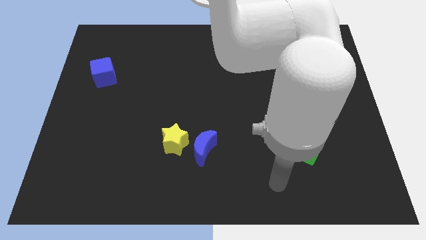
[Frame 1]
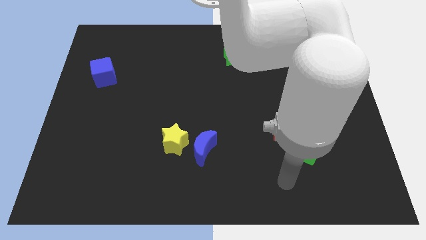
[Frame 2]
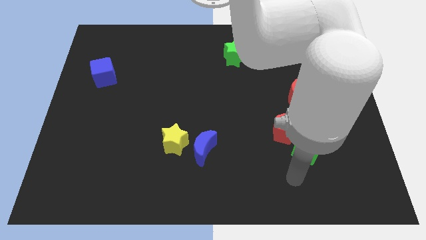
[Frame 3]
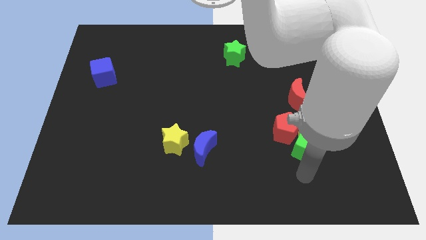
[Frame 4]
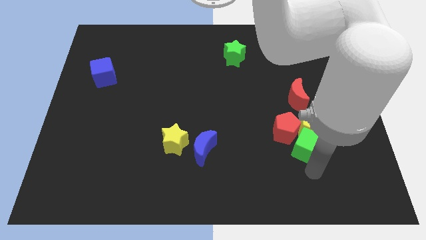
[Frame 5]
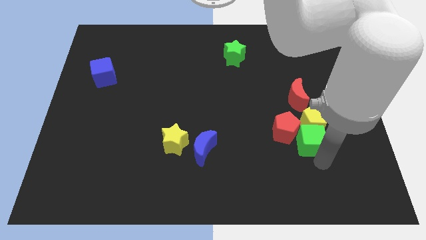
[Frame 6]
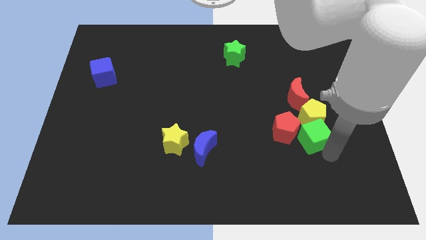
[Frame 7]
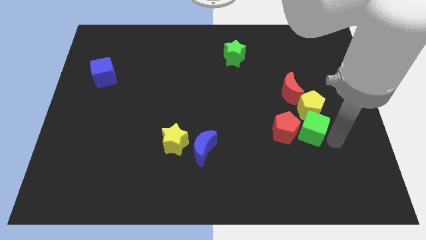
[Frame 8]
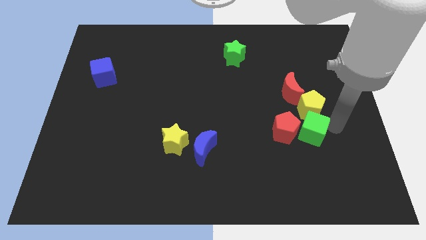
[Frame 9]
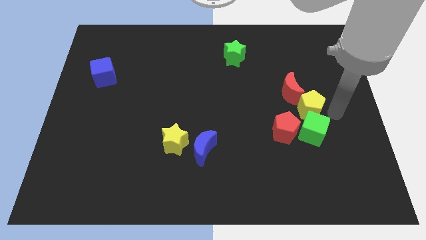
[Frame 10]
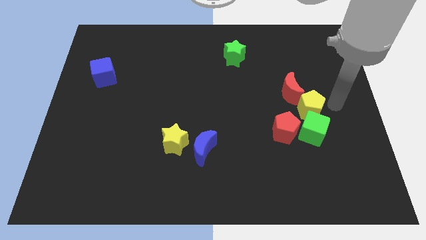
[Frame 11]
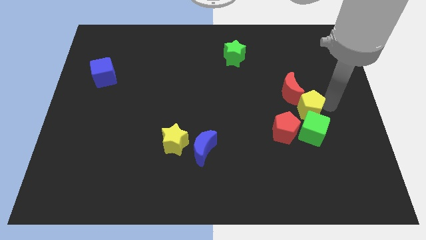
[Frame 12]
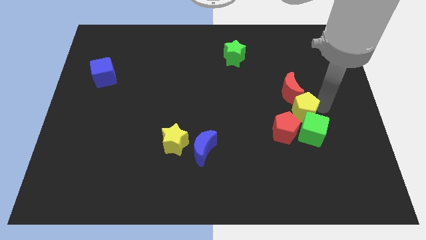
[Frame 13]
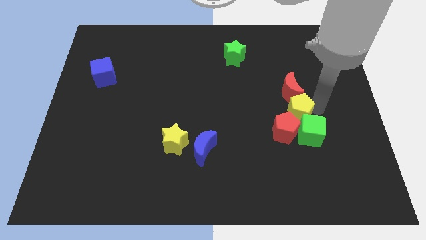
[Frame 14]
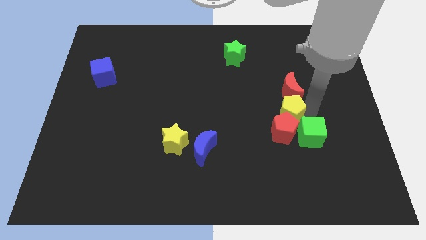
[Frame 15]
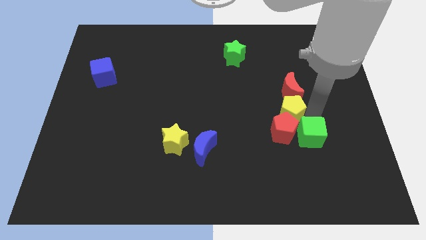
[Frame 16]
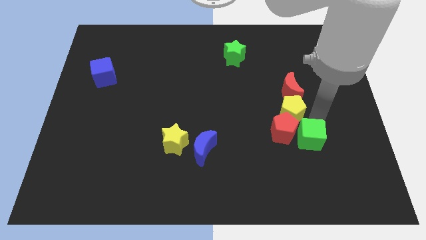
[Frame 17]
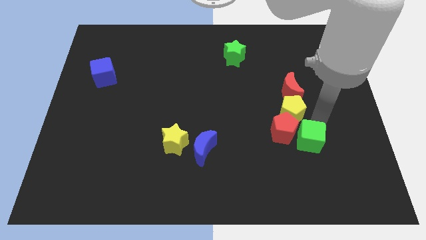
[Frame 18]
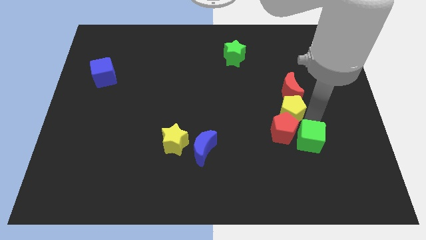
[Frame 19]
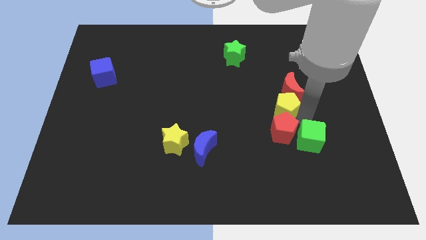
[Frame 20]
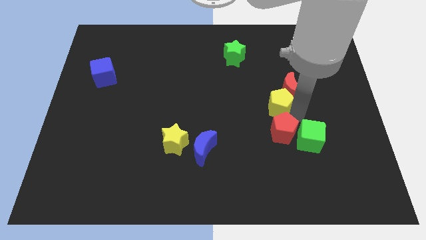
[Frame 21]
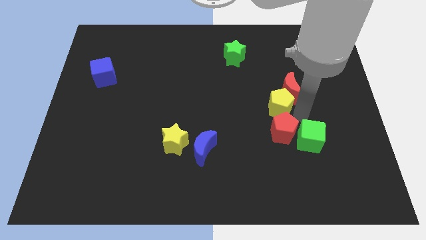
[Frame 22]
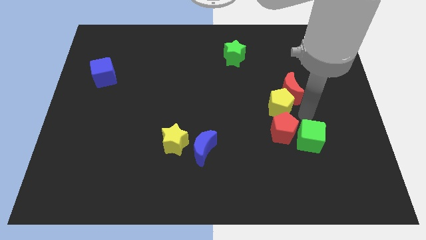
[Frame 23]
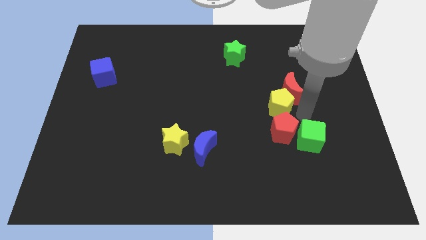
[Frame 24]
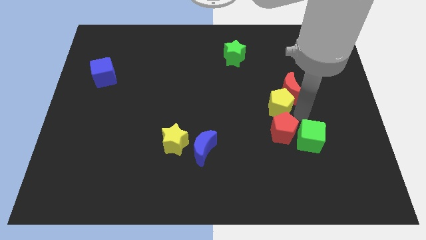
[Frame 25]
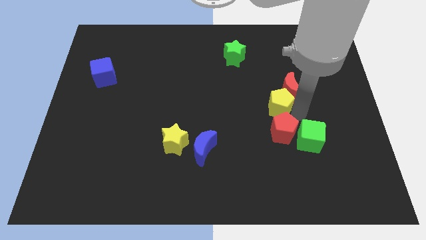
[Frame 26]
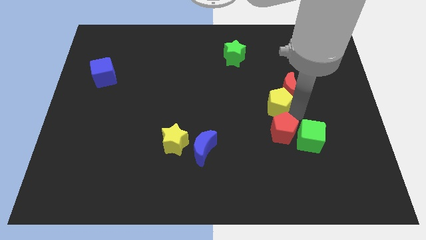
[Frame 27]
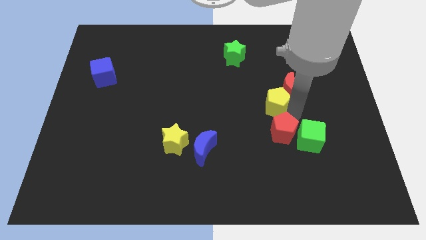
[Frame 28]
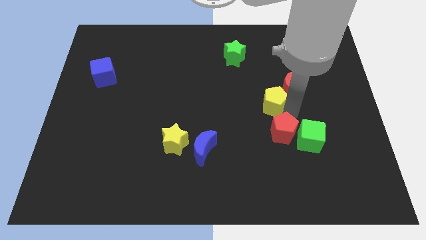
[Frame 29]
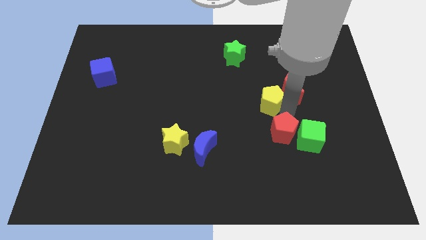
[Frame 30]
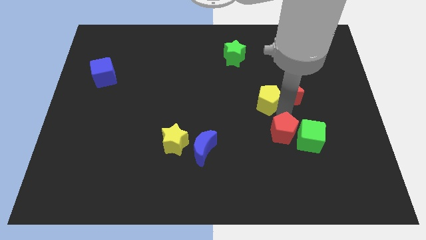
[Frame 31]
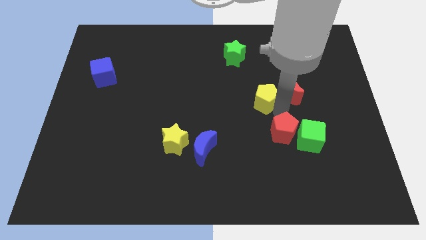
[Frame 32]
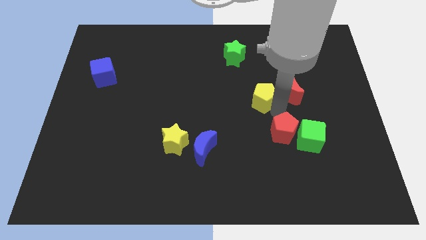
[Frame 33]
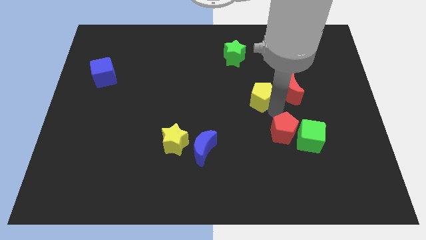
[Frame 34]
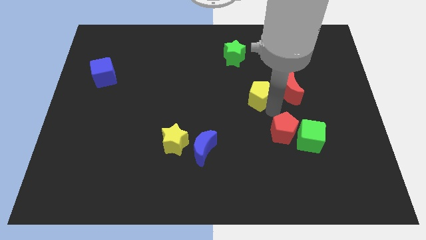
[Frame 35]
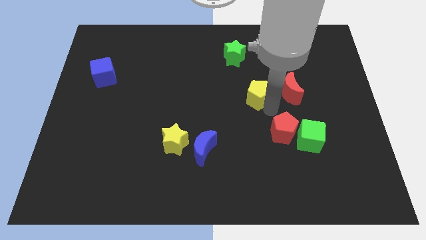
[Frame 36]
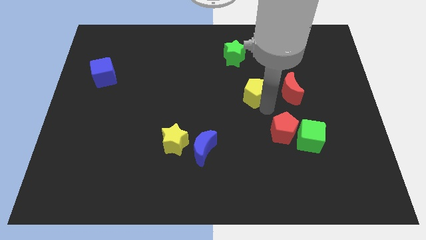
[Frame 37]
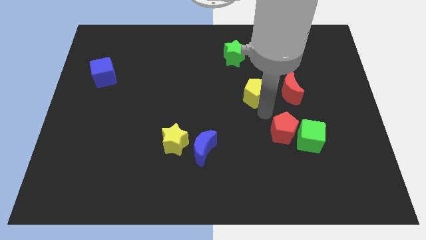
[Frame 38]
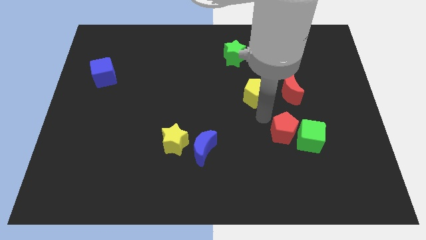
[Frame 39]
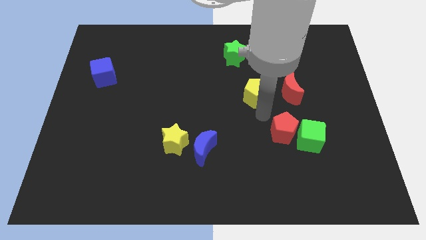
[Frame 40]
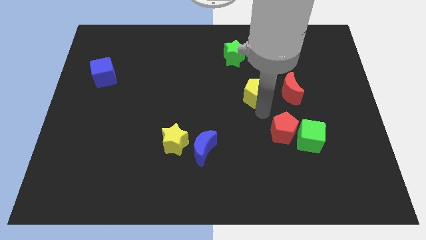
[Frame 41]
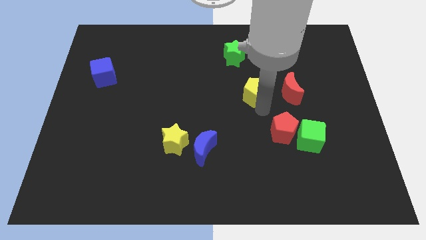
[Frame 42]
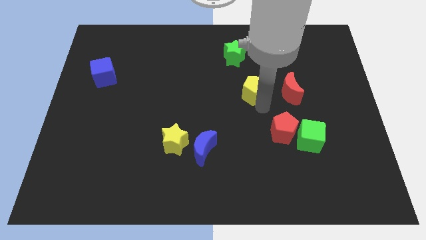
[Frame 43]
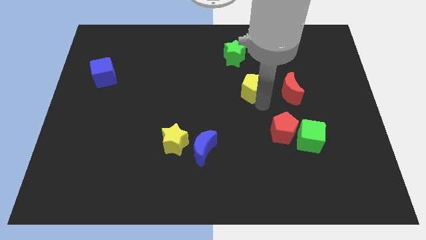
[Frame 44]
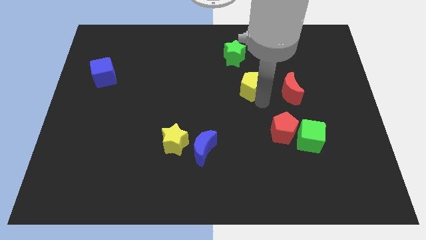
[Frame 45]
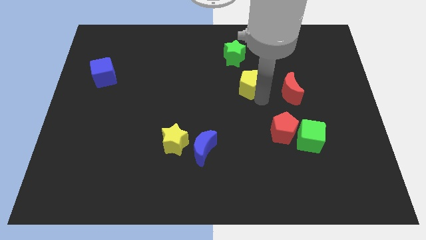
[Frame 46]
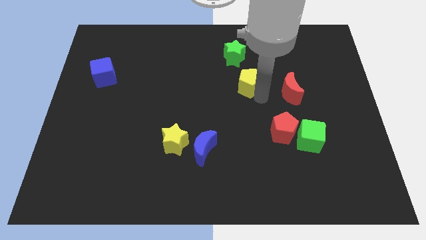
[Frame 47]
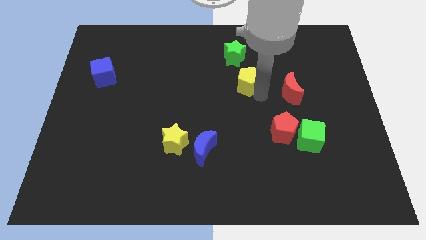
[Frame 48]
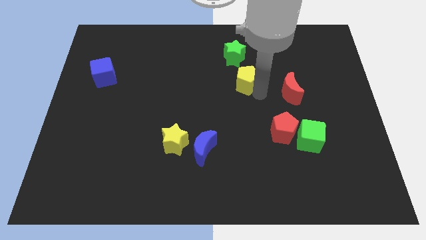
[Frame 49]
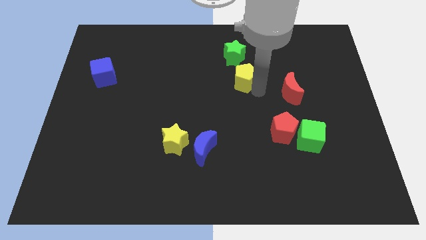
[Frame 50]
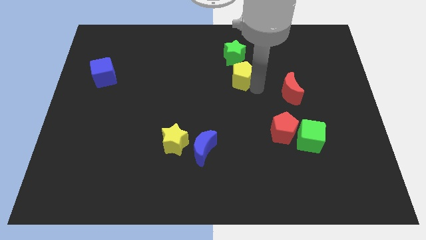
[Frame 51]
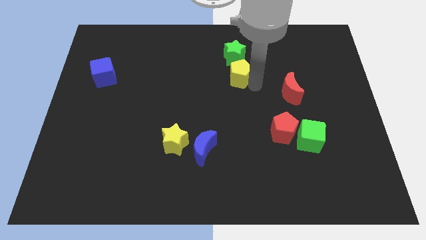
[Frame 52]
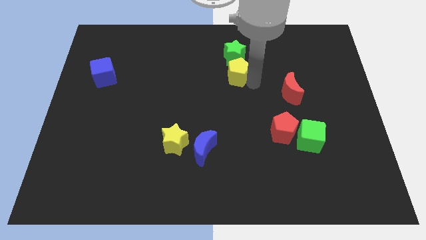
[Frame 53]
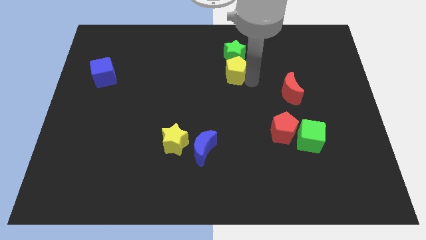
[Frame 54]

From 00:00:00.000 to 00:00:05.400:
put the yellow pentagon close to the green star

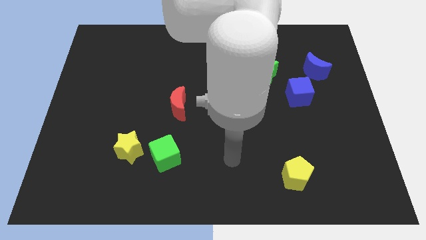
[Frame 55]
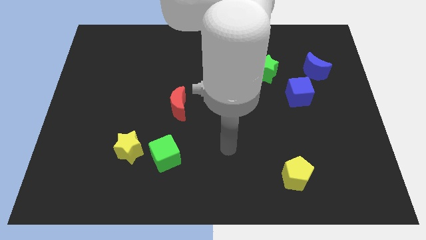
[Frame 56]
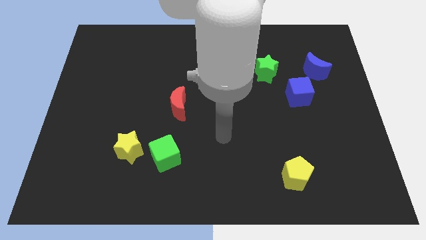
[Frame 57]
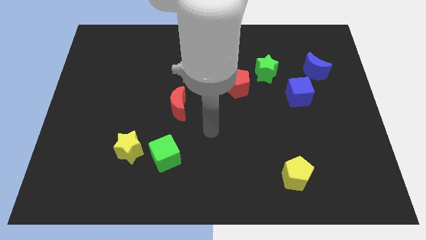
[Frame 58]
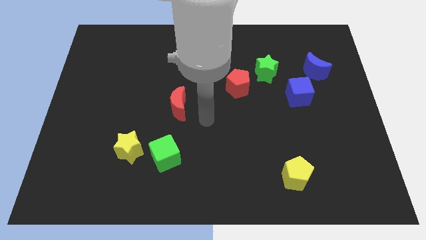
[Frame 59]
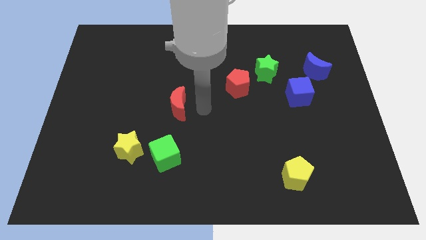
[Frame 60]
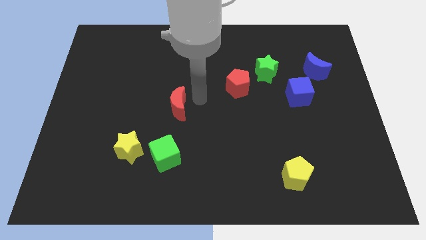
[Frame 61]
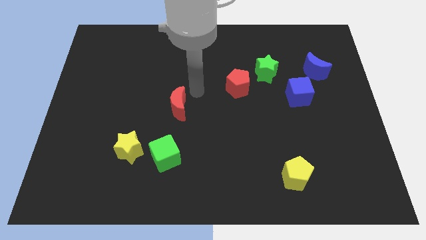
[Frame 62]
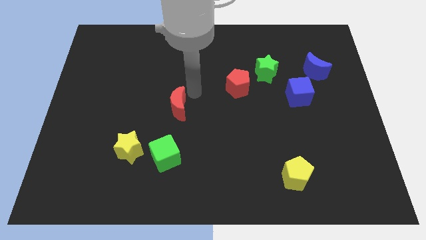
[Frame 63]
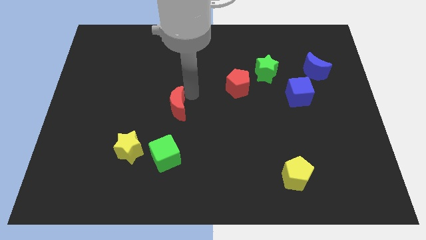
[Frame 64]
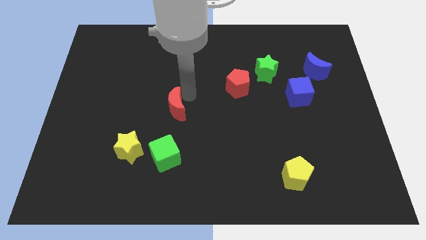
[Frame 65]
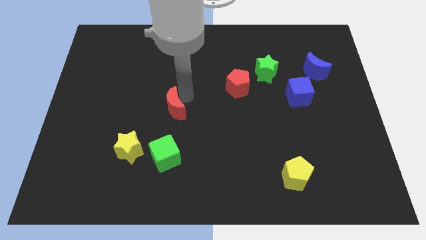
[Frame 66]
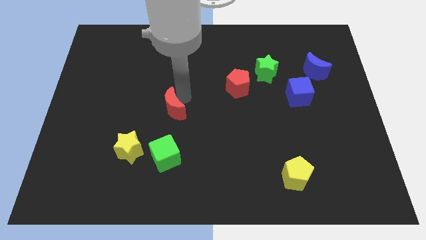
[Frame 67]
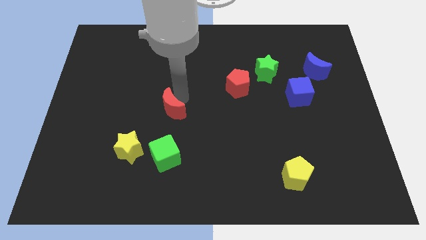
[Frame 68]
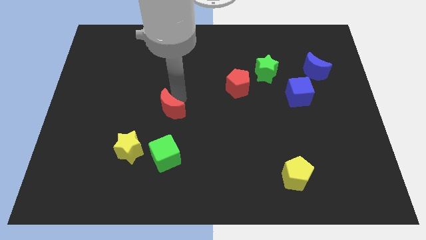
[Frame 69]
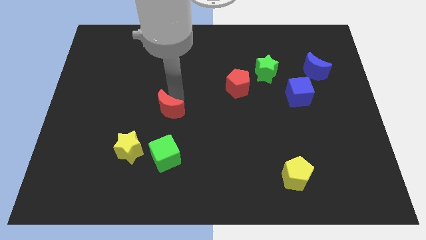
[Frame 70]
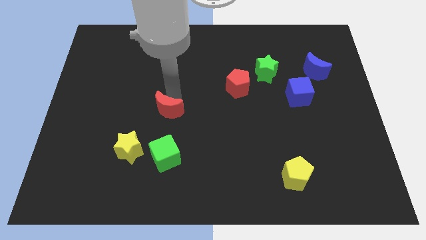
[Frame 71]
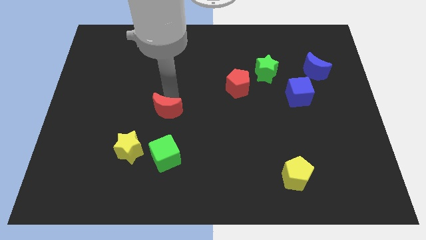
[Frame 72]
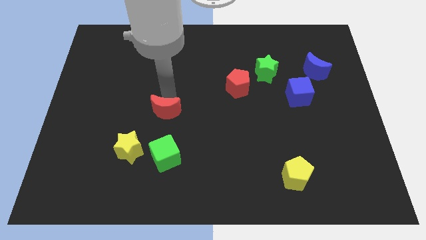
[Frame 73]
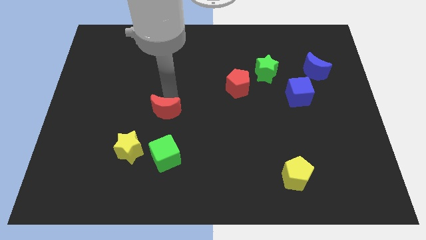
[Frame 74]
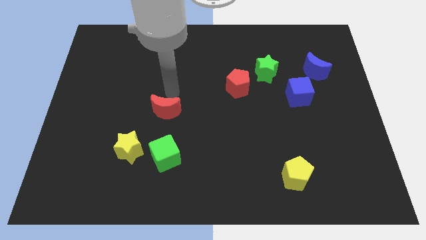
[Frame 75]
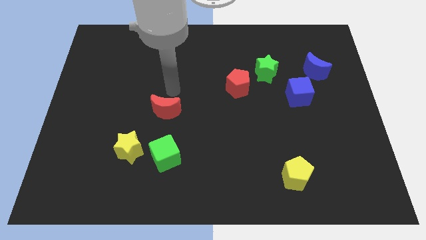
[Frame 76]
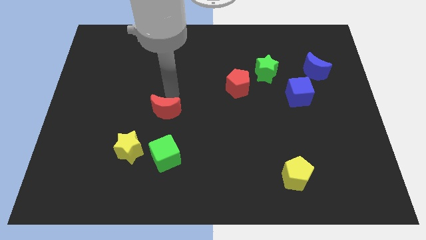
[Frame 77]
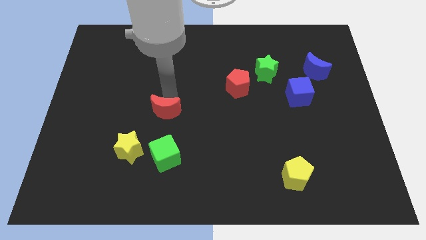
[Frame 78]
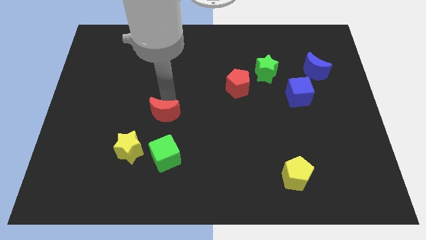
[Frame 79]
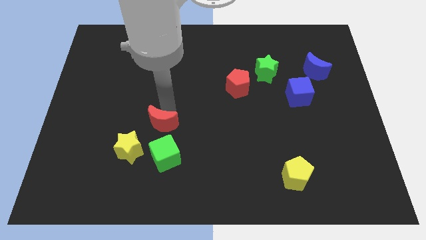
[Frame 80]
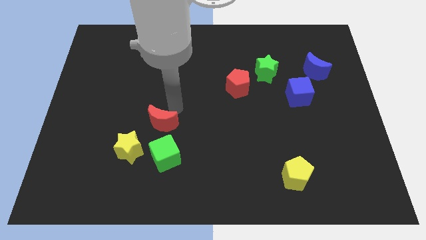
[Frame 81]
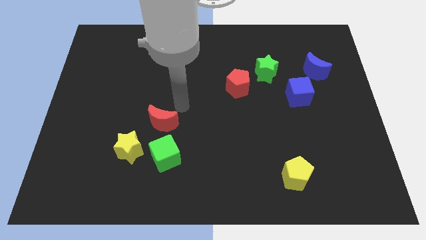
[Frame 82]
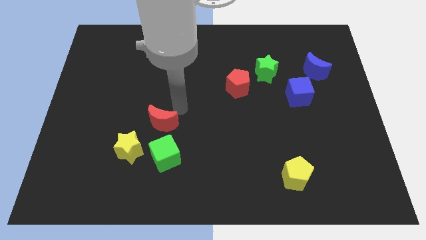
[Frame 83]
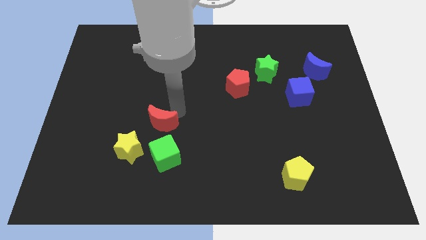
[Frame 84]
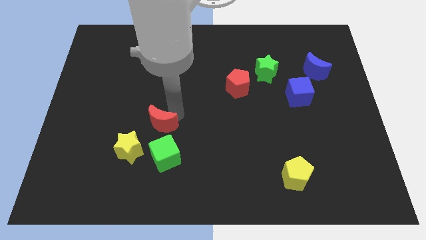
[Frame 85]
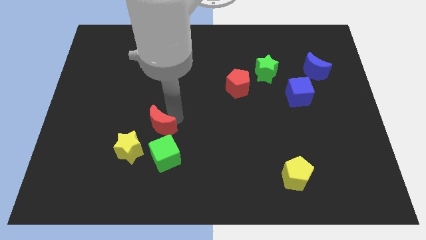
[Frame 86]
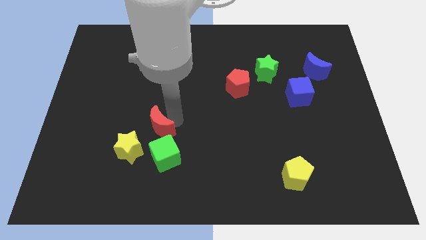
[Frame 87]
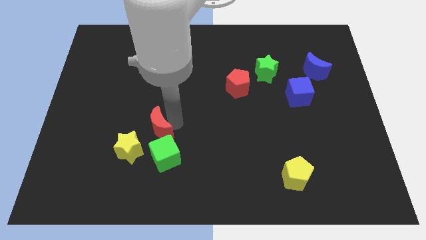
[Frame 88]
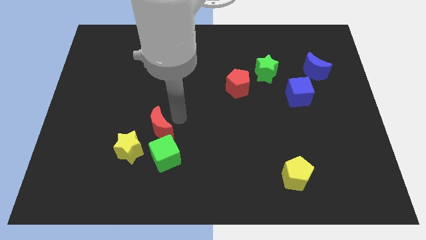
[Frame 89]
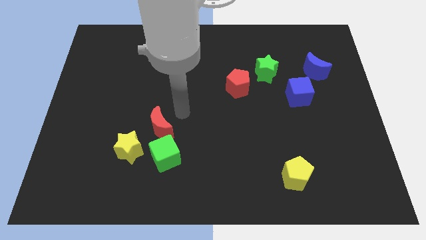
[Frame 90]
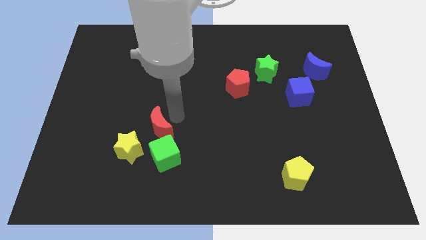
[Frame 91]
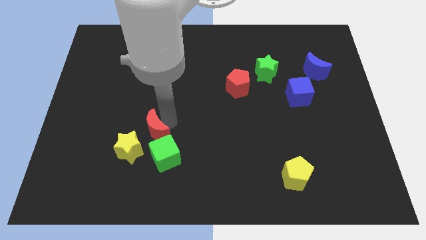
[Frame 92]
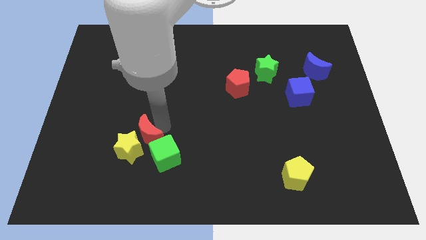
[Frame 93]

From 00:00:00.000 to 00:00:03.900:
push the red moon towards the yellow star
